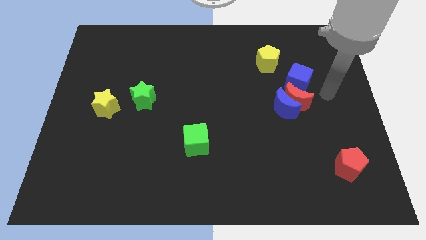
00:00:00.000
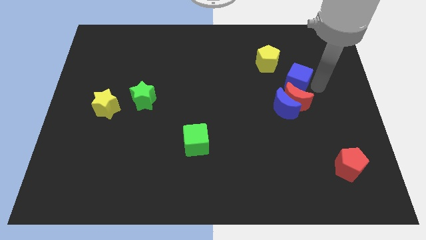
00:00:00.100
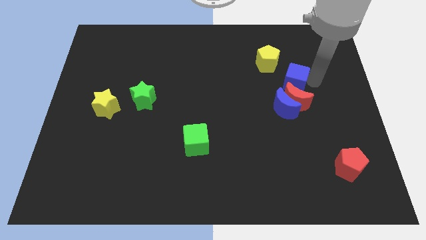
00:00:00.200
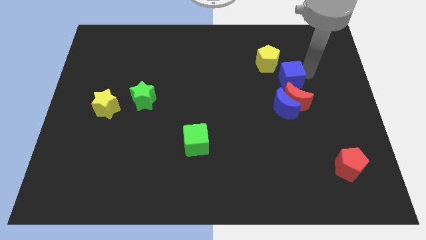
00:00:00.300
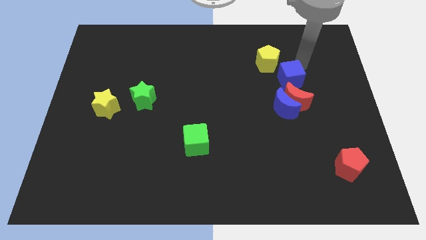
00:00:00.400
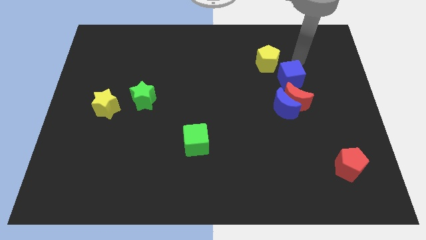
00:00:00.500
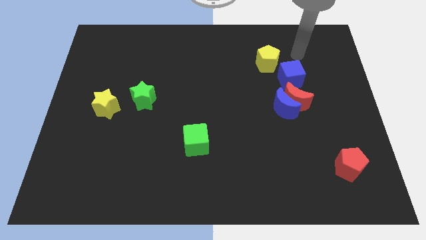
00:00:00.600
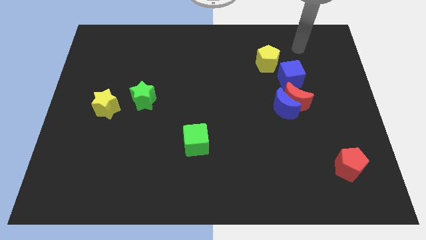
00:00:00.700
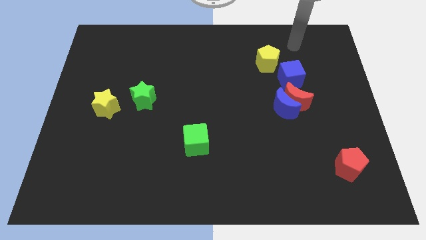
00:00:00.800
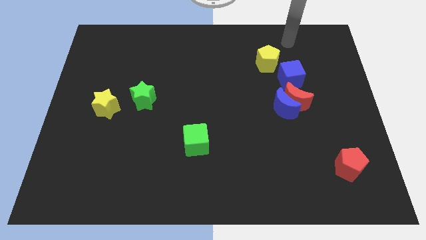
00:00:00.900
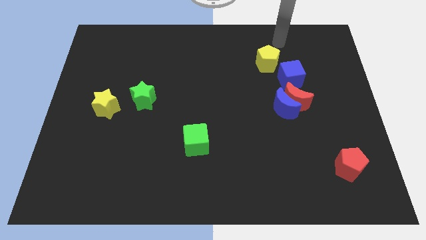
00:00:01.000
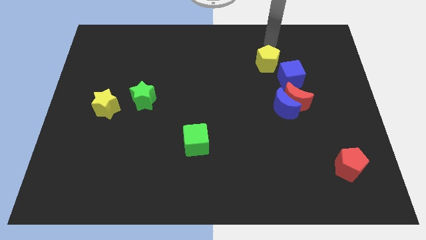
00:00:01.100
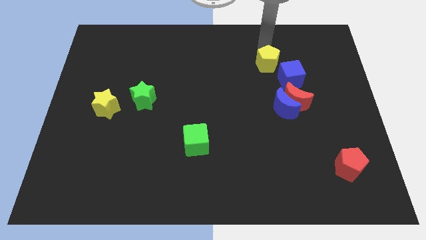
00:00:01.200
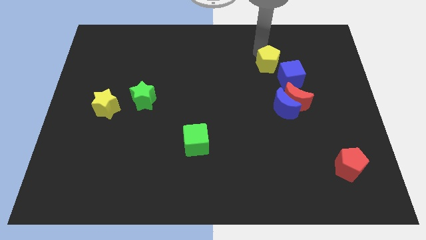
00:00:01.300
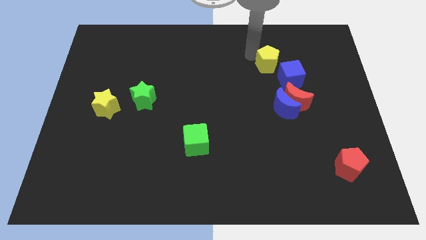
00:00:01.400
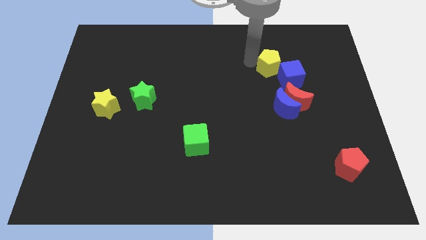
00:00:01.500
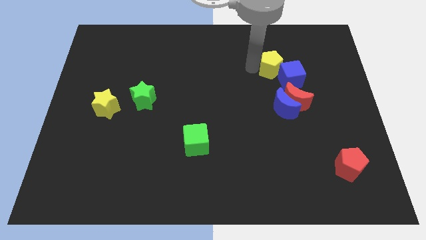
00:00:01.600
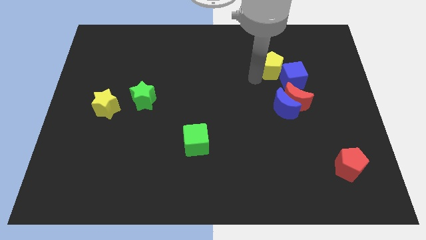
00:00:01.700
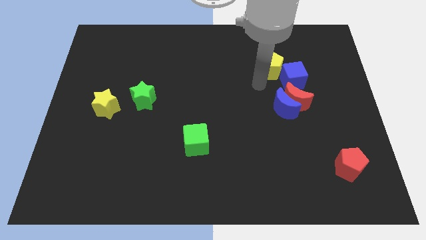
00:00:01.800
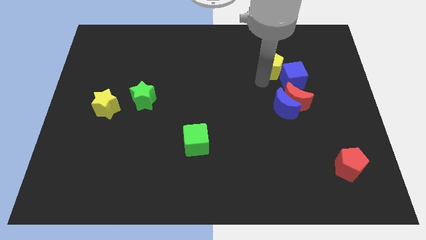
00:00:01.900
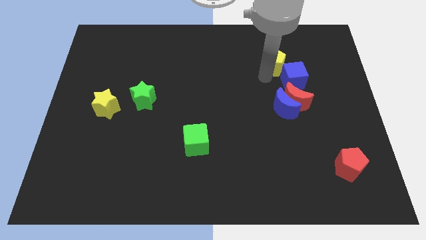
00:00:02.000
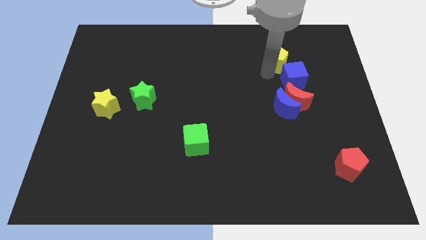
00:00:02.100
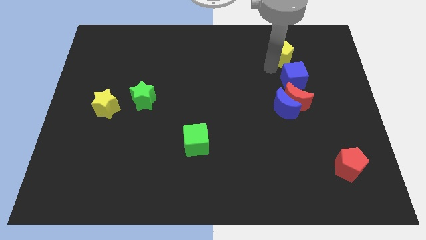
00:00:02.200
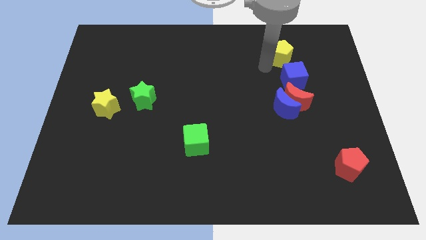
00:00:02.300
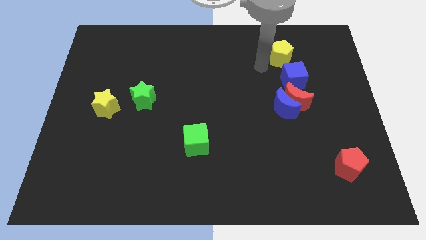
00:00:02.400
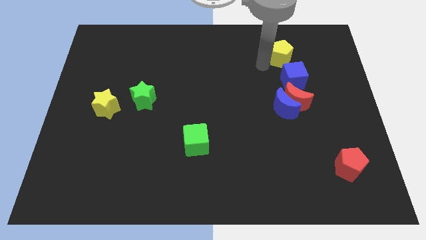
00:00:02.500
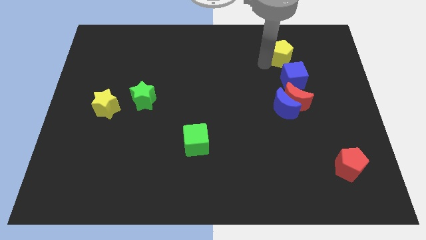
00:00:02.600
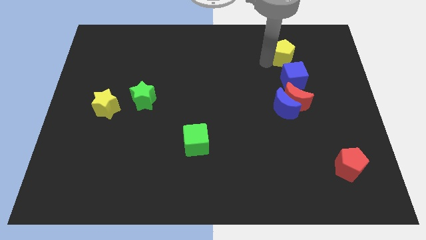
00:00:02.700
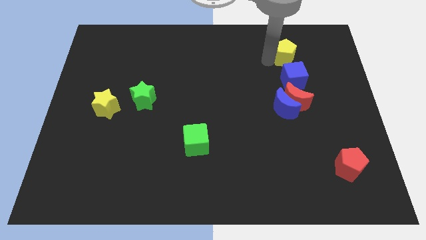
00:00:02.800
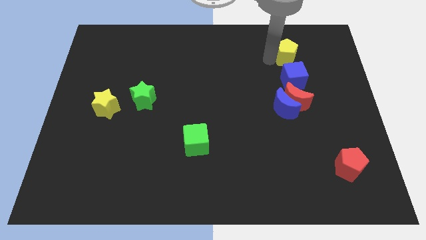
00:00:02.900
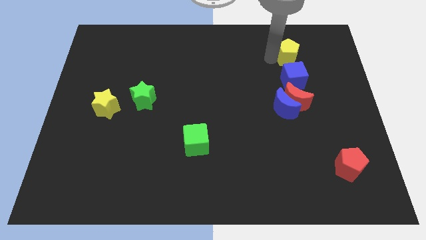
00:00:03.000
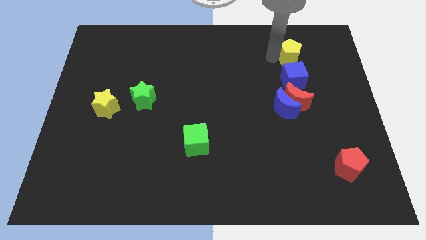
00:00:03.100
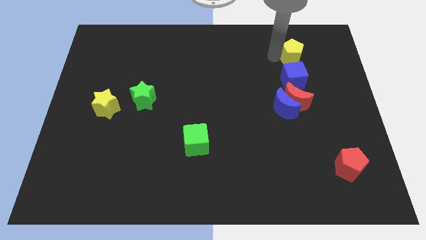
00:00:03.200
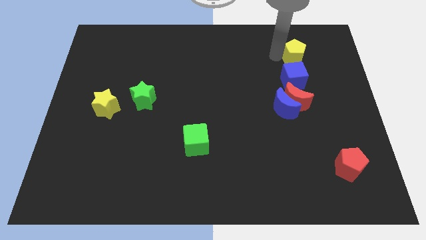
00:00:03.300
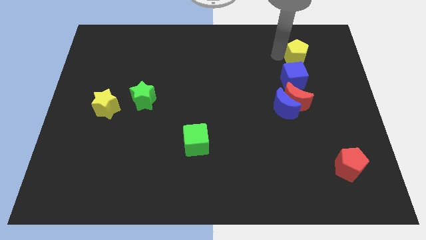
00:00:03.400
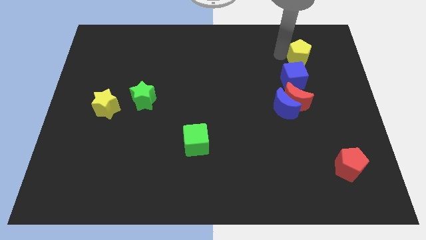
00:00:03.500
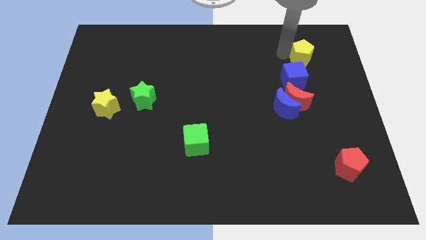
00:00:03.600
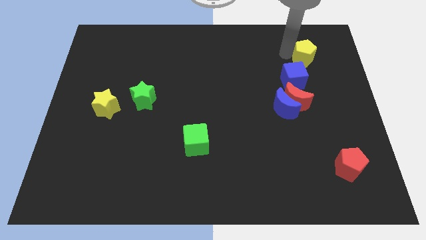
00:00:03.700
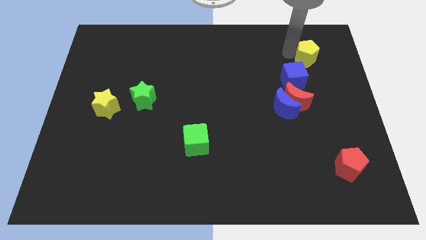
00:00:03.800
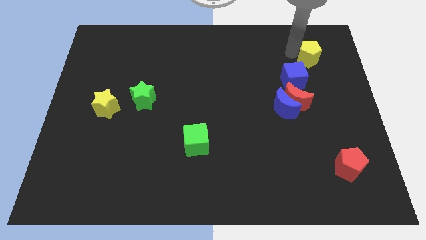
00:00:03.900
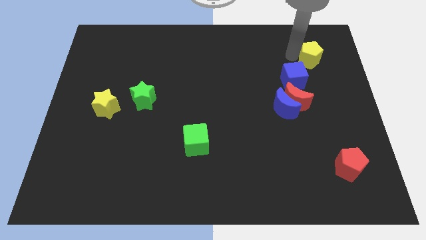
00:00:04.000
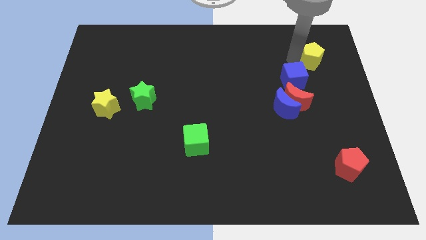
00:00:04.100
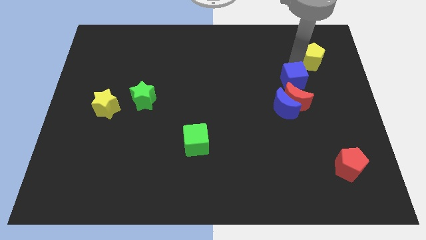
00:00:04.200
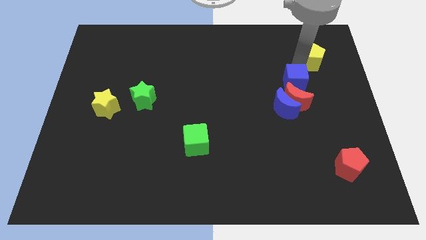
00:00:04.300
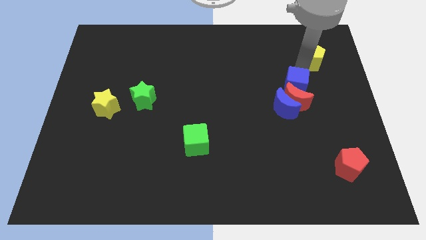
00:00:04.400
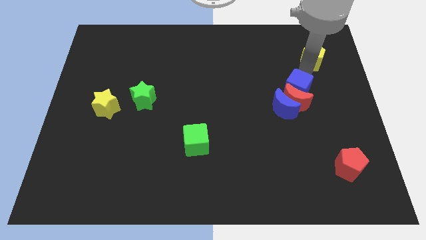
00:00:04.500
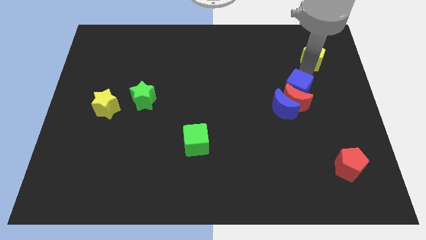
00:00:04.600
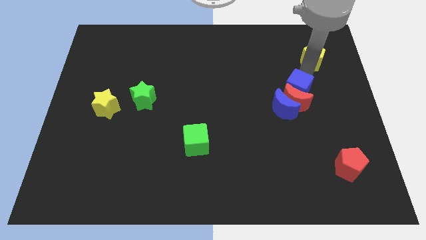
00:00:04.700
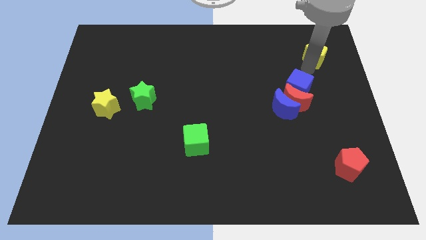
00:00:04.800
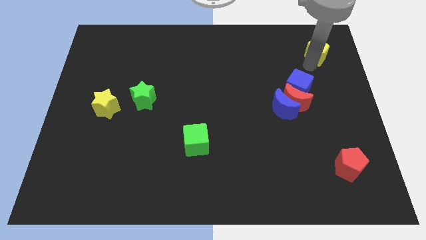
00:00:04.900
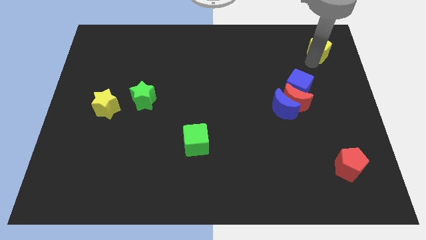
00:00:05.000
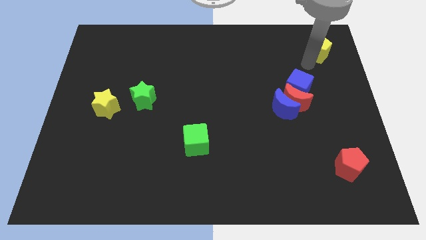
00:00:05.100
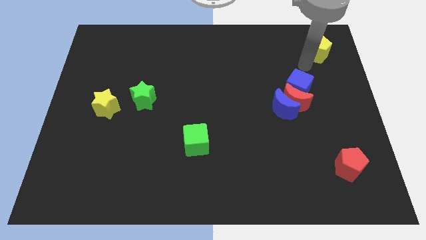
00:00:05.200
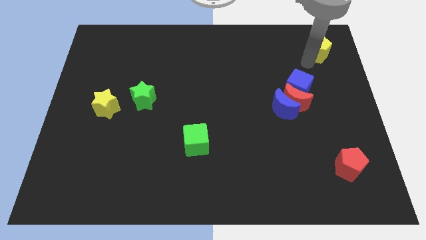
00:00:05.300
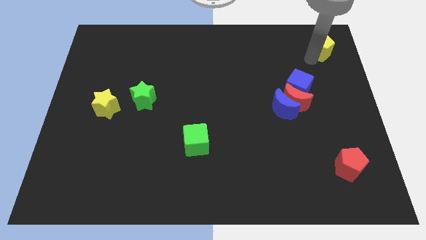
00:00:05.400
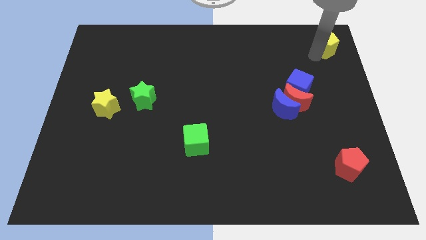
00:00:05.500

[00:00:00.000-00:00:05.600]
put the yellow pentagon to the top right

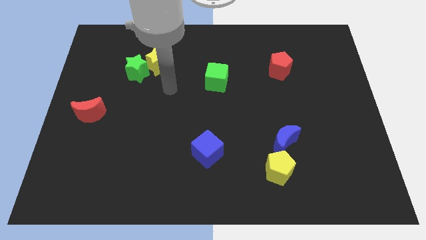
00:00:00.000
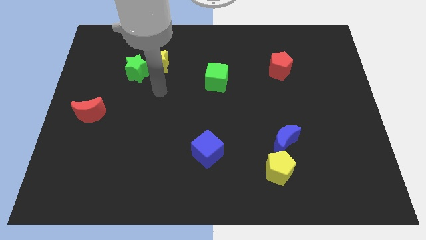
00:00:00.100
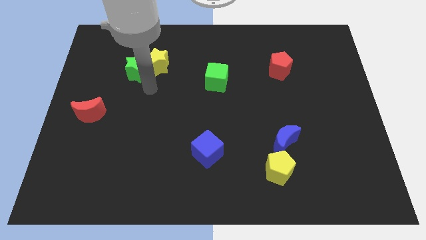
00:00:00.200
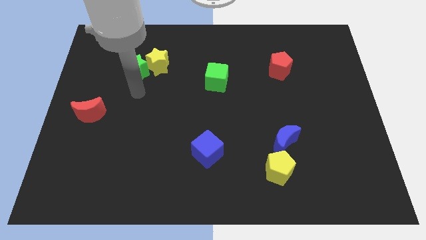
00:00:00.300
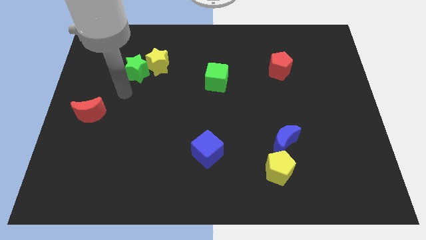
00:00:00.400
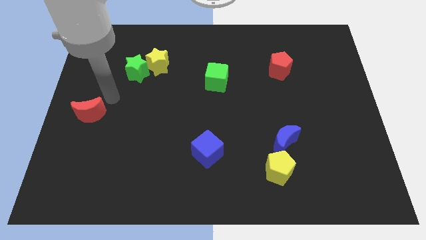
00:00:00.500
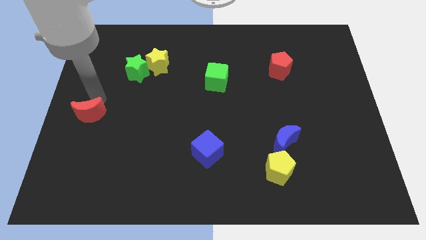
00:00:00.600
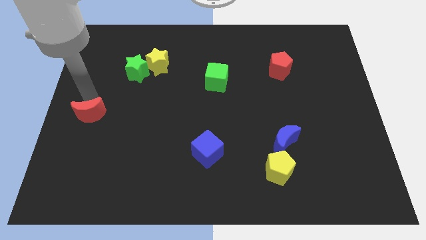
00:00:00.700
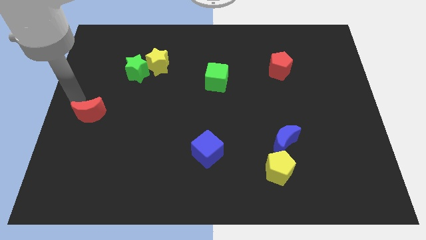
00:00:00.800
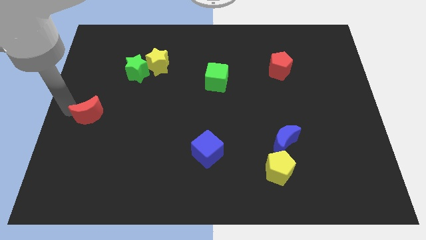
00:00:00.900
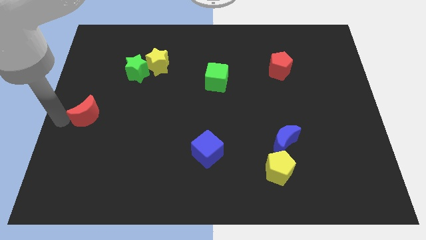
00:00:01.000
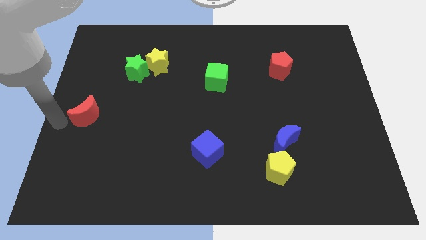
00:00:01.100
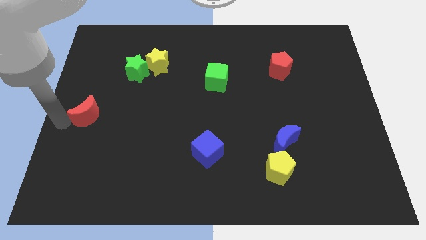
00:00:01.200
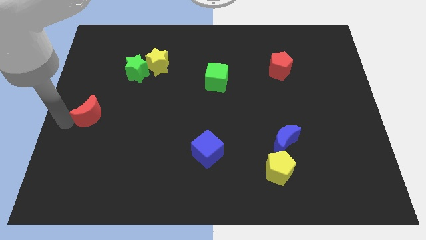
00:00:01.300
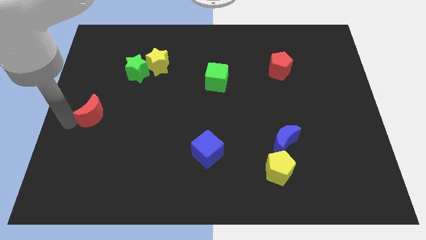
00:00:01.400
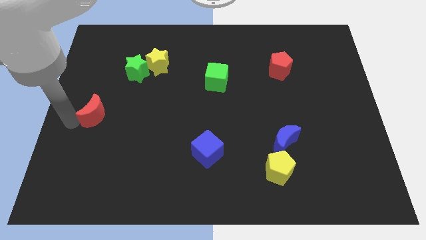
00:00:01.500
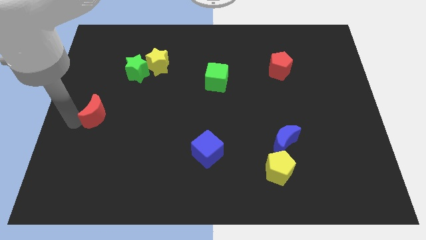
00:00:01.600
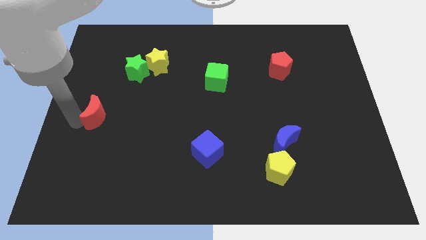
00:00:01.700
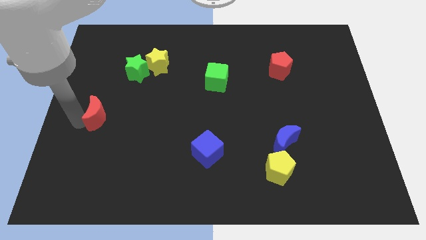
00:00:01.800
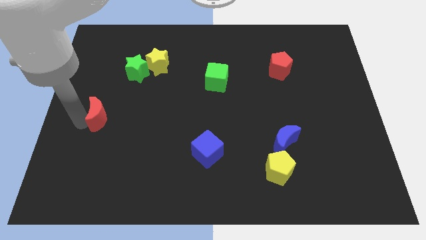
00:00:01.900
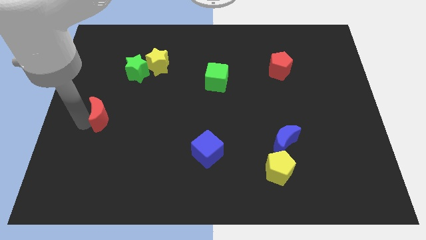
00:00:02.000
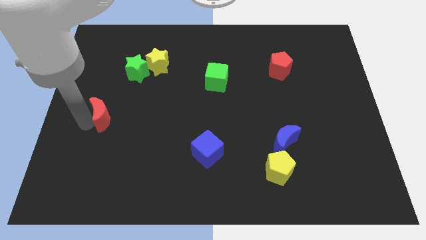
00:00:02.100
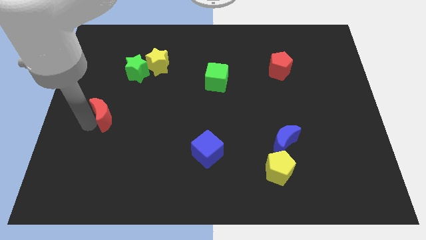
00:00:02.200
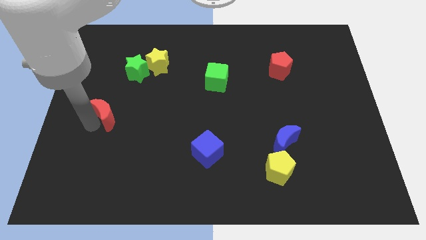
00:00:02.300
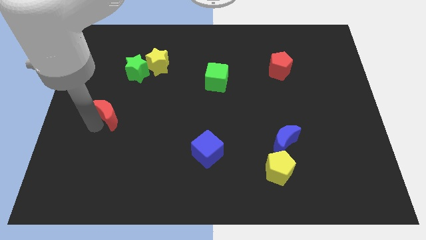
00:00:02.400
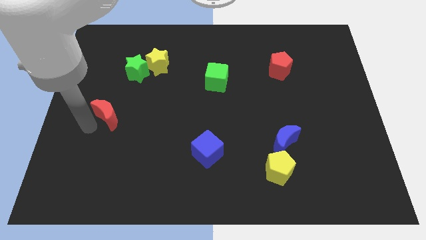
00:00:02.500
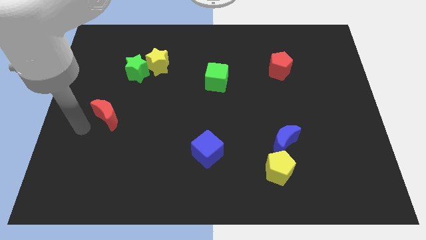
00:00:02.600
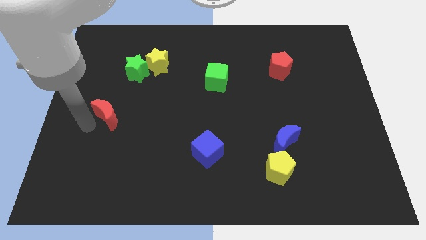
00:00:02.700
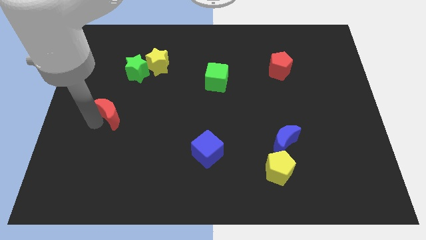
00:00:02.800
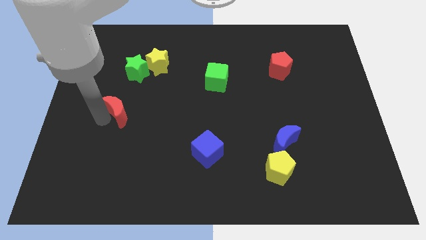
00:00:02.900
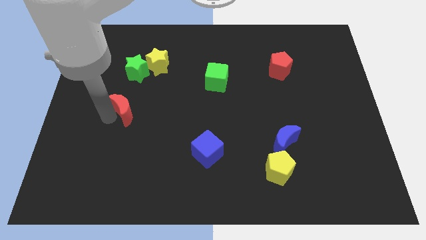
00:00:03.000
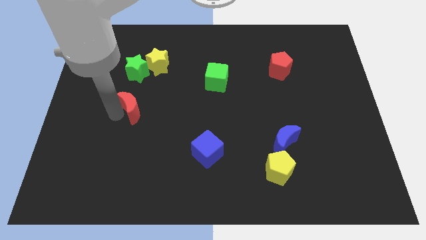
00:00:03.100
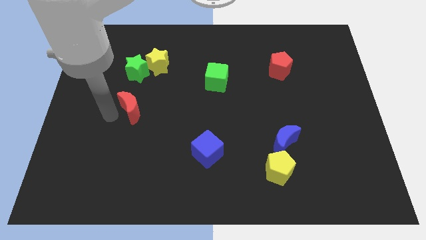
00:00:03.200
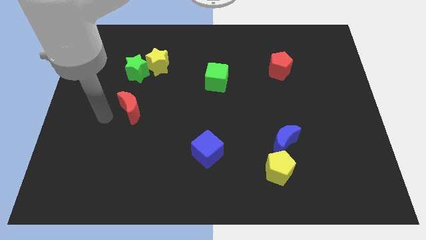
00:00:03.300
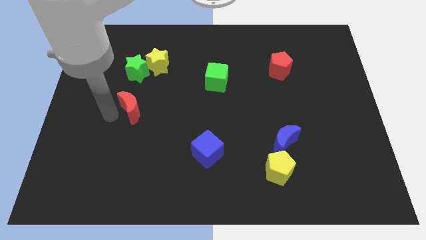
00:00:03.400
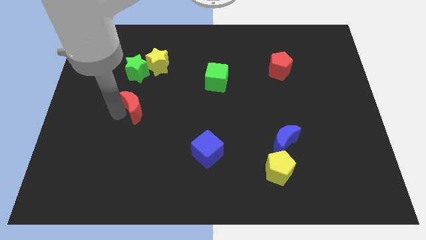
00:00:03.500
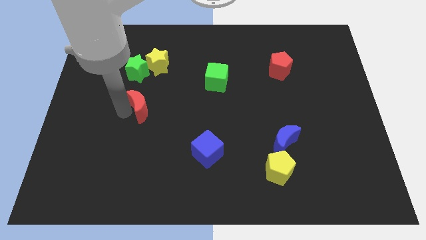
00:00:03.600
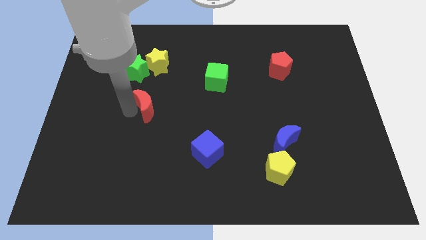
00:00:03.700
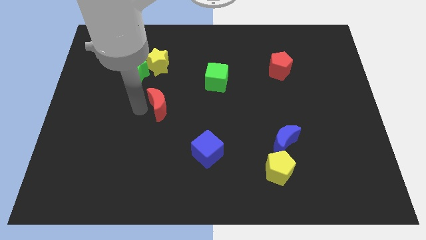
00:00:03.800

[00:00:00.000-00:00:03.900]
put the red moon to the center
